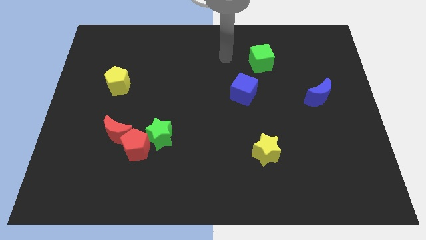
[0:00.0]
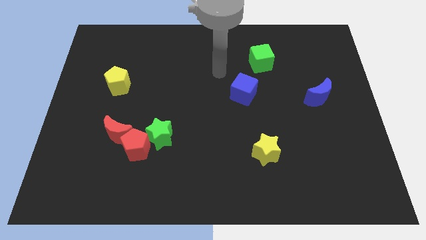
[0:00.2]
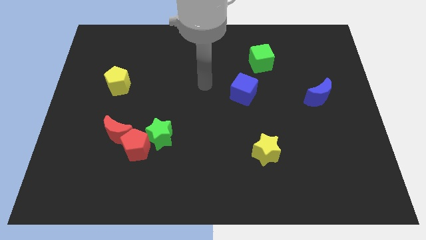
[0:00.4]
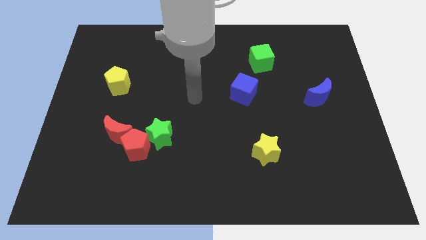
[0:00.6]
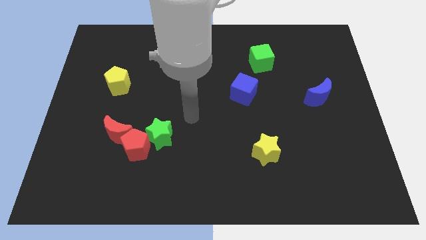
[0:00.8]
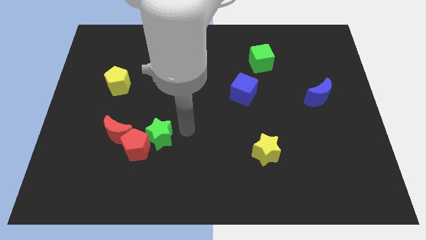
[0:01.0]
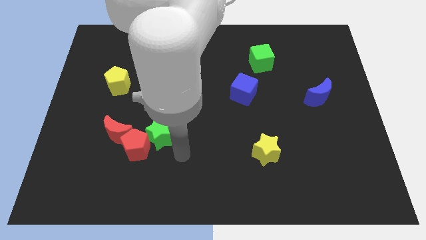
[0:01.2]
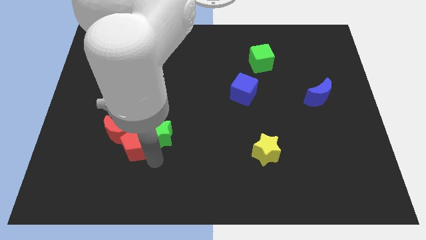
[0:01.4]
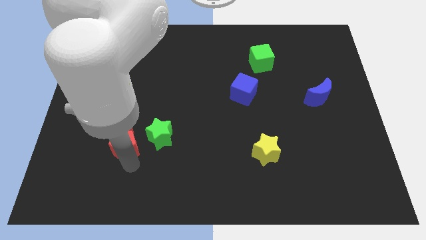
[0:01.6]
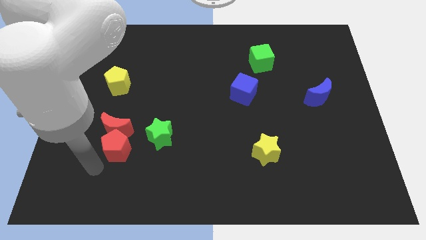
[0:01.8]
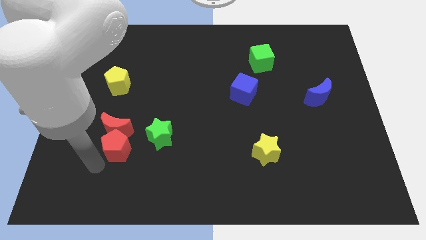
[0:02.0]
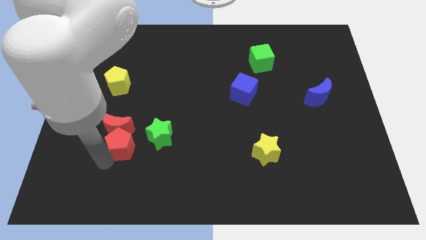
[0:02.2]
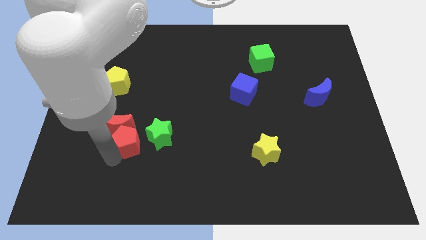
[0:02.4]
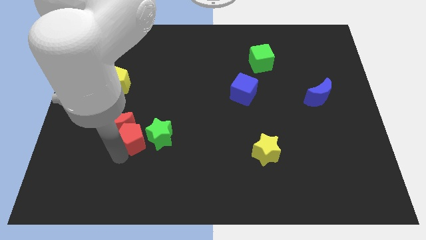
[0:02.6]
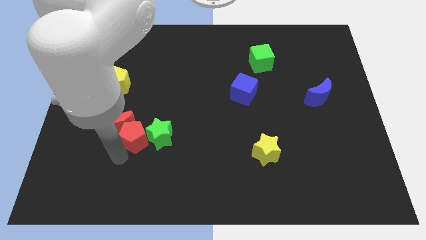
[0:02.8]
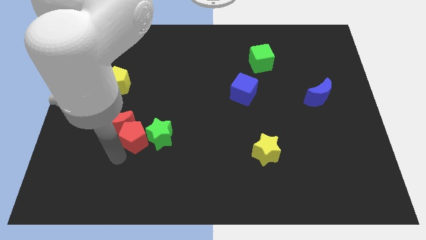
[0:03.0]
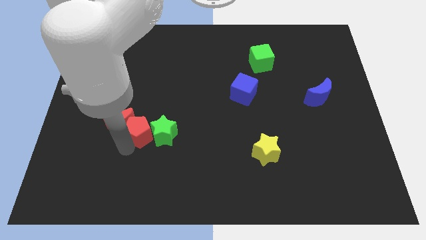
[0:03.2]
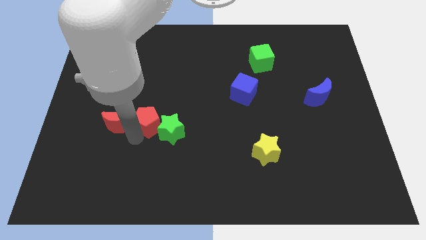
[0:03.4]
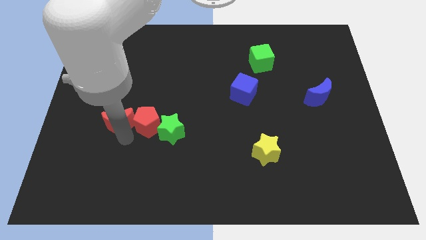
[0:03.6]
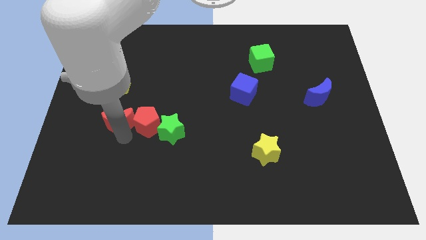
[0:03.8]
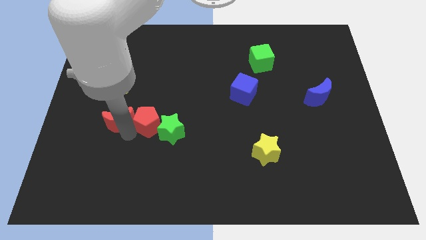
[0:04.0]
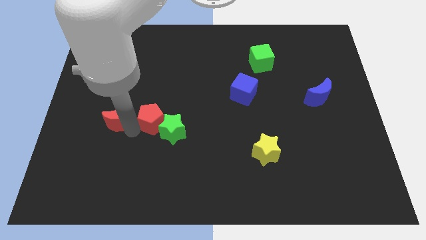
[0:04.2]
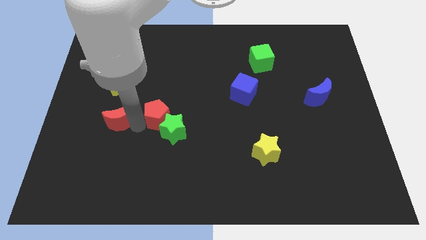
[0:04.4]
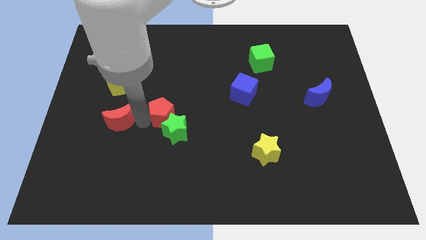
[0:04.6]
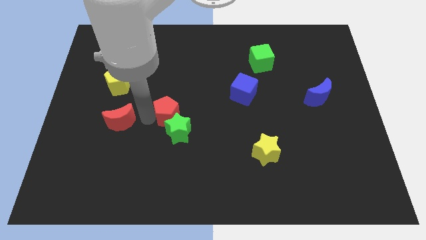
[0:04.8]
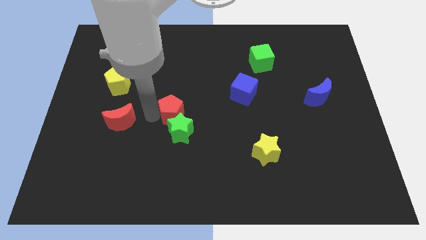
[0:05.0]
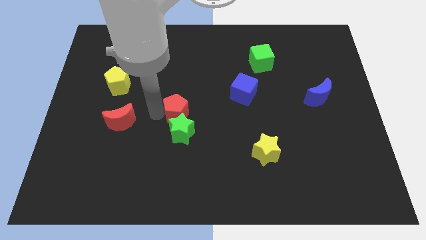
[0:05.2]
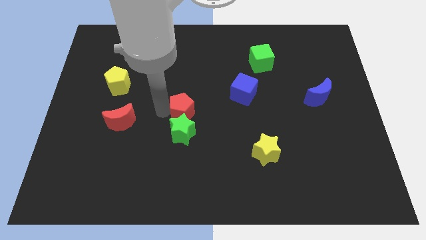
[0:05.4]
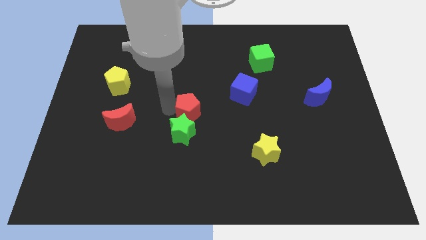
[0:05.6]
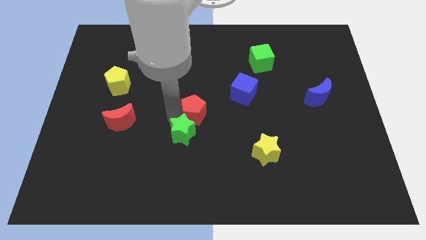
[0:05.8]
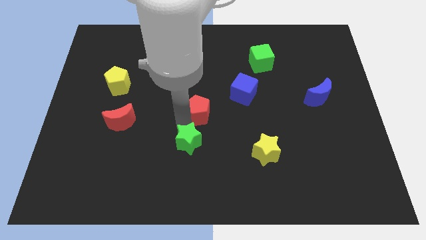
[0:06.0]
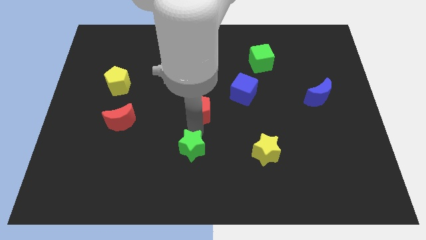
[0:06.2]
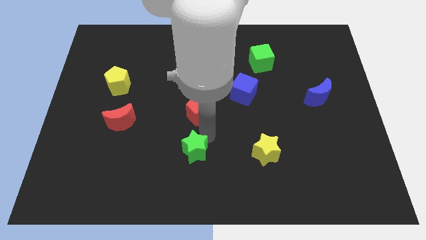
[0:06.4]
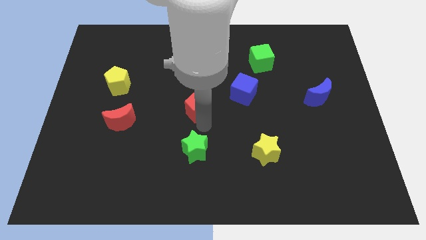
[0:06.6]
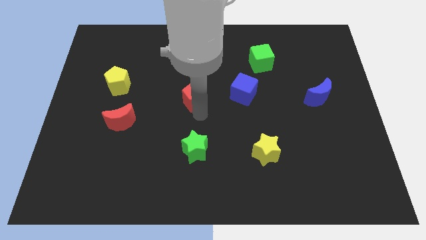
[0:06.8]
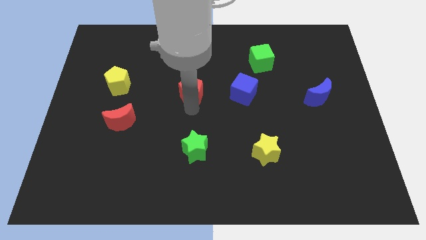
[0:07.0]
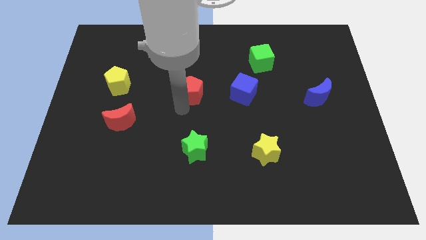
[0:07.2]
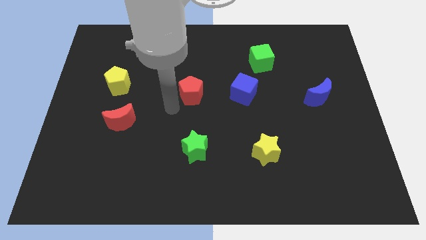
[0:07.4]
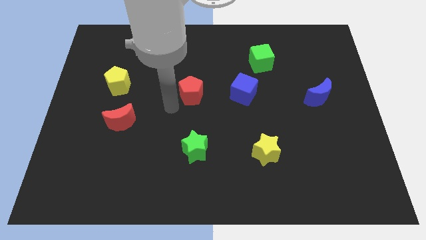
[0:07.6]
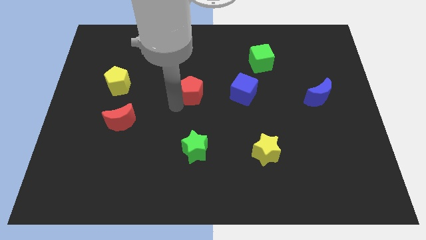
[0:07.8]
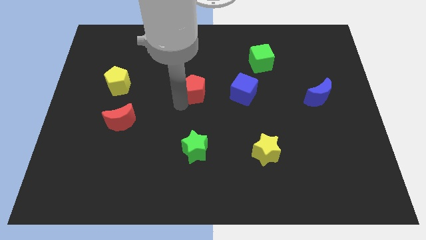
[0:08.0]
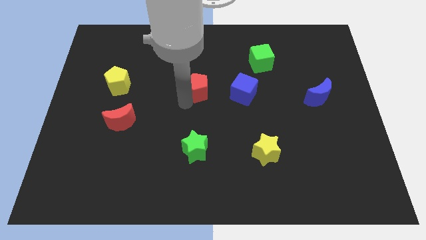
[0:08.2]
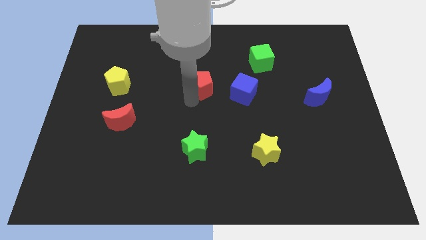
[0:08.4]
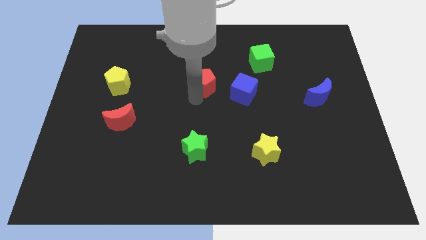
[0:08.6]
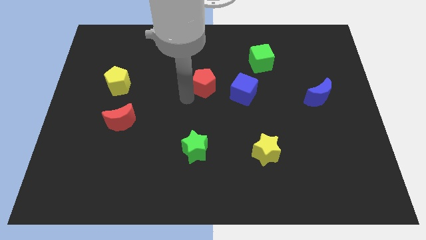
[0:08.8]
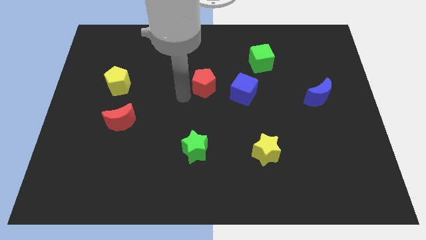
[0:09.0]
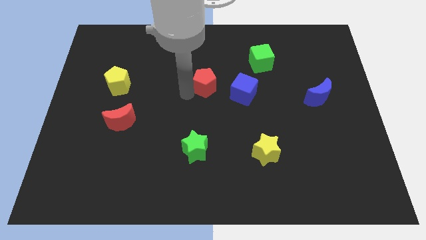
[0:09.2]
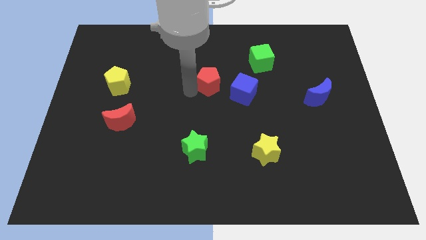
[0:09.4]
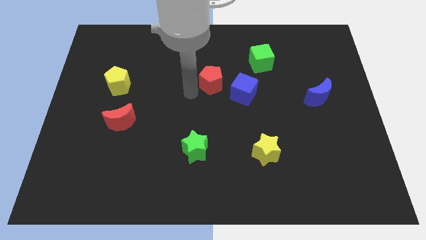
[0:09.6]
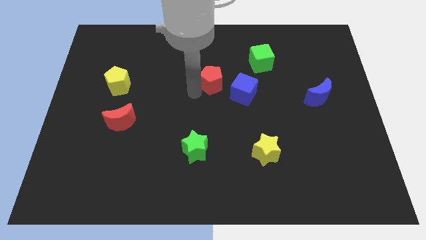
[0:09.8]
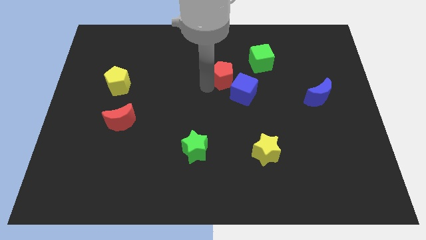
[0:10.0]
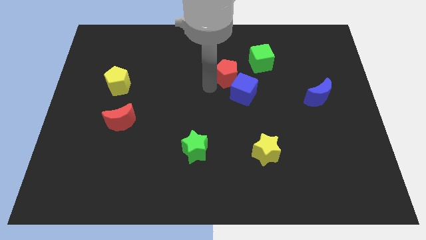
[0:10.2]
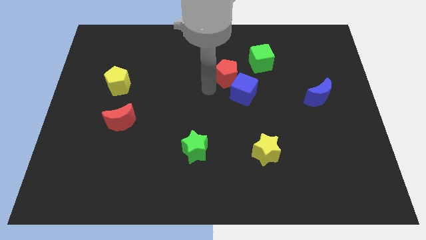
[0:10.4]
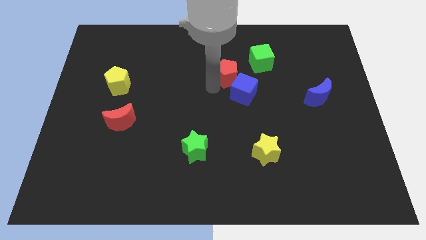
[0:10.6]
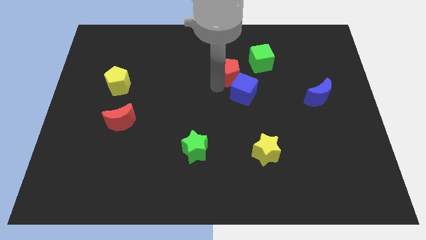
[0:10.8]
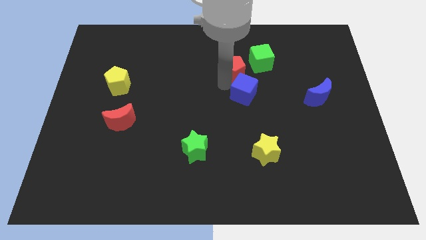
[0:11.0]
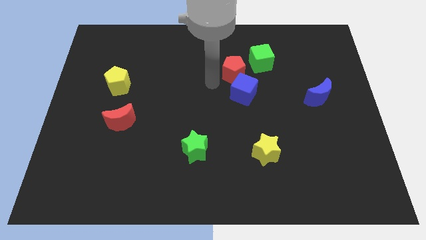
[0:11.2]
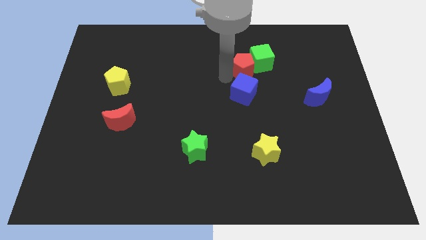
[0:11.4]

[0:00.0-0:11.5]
push the red pentagon to the green cube

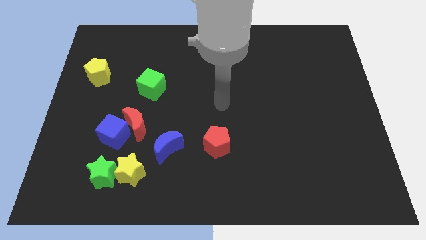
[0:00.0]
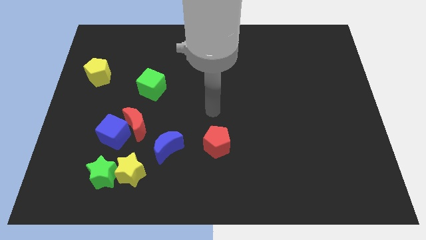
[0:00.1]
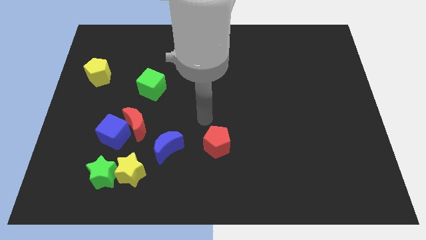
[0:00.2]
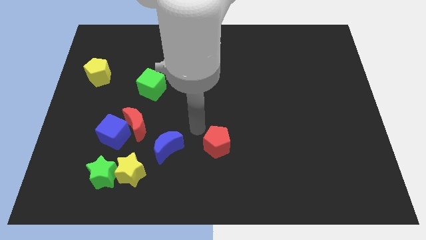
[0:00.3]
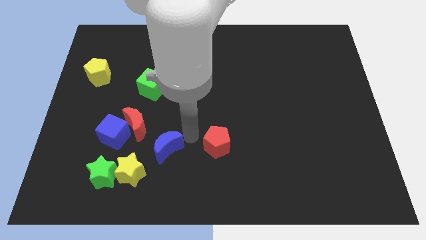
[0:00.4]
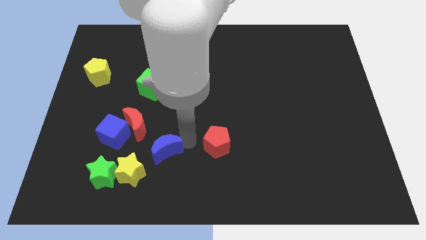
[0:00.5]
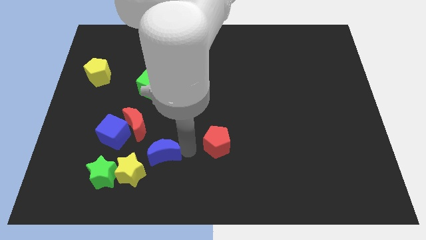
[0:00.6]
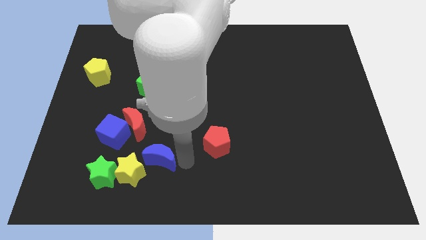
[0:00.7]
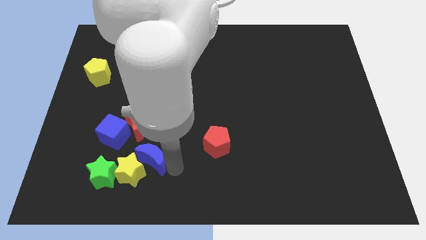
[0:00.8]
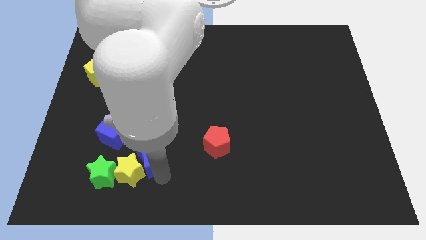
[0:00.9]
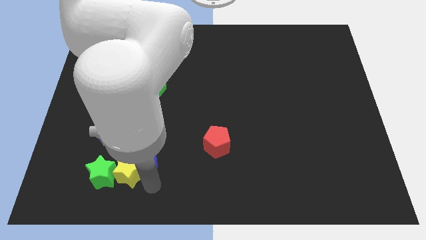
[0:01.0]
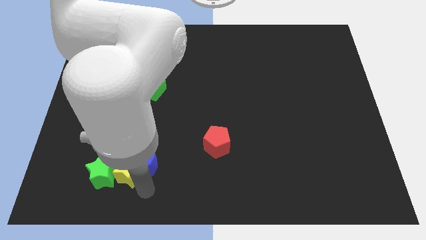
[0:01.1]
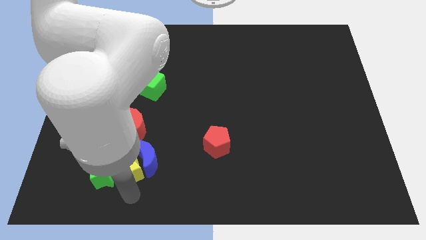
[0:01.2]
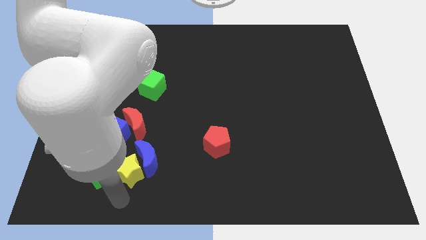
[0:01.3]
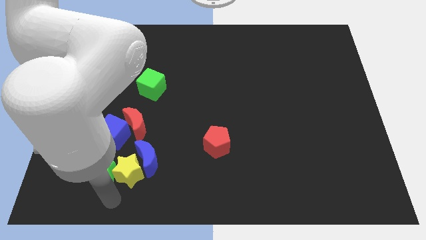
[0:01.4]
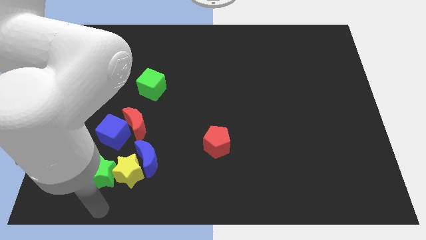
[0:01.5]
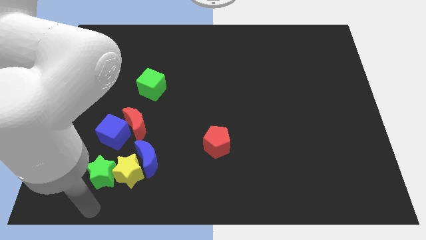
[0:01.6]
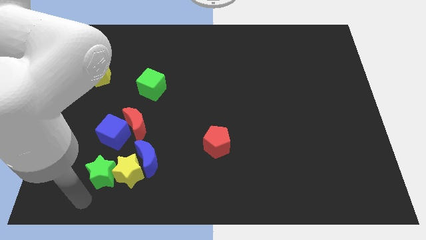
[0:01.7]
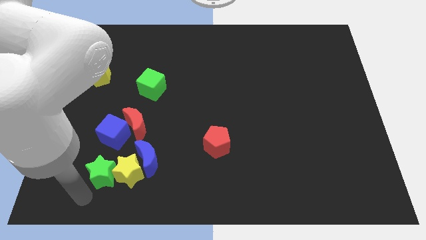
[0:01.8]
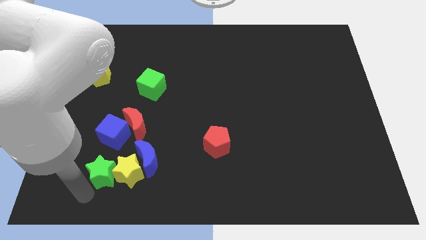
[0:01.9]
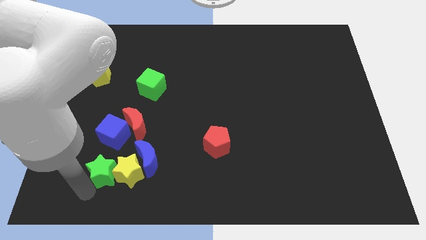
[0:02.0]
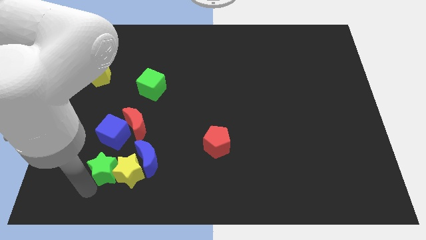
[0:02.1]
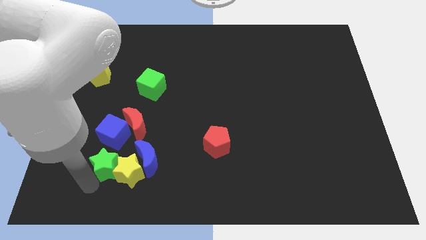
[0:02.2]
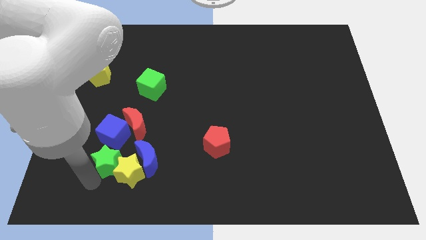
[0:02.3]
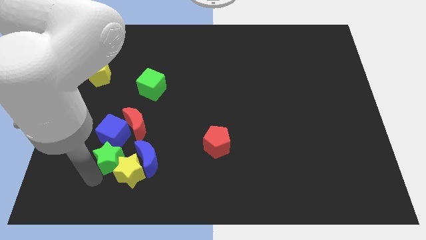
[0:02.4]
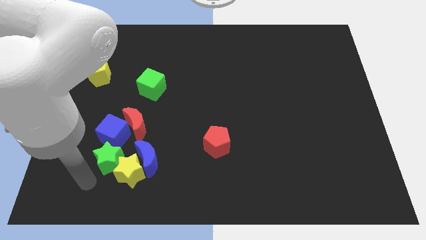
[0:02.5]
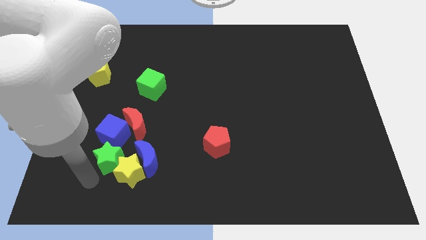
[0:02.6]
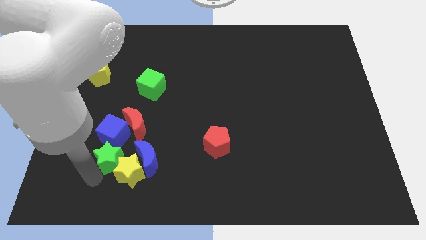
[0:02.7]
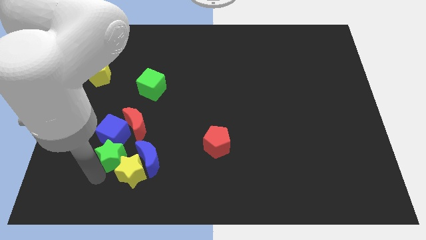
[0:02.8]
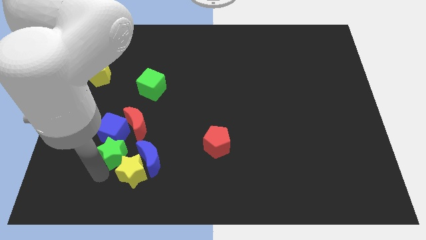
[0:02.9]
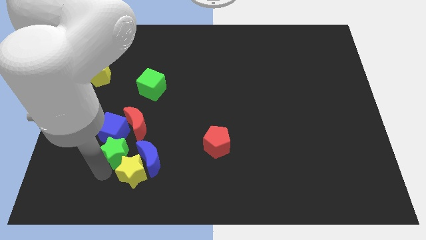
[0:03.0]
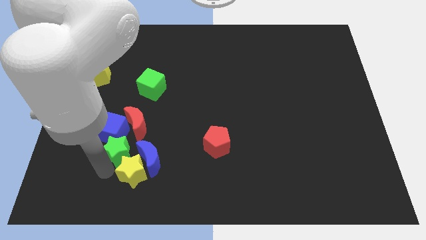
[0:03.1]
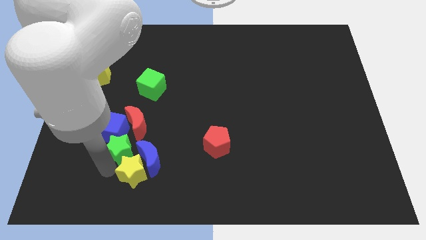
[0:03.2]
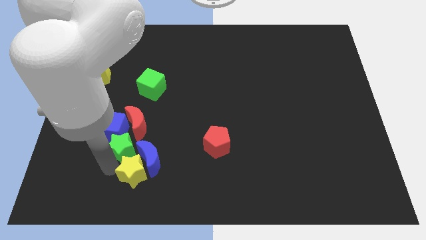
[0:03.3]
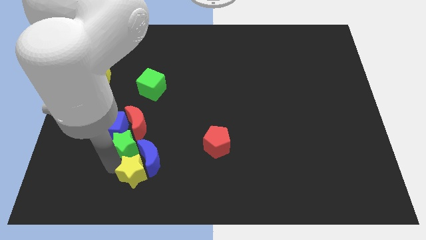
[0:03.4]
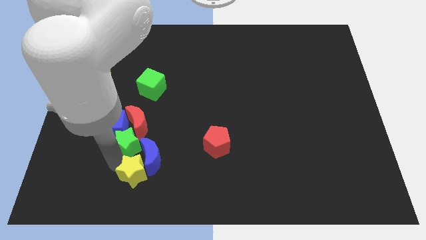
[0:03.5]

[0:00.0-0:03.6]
put the green star next to the red moon
